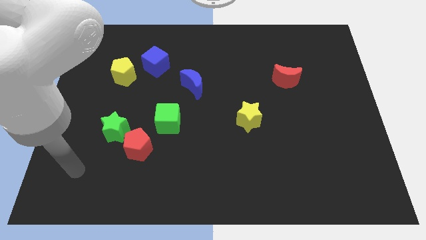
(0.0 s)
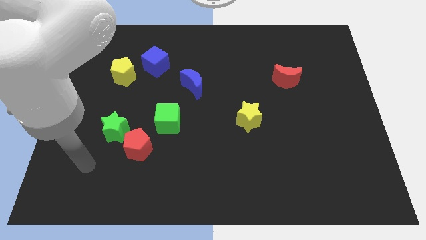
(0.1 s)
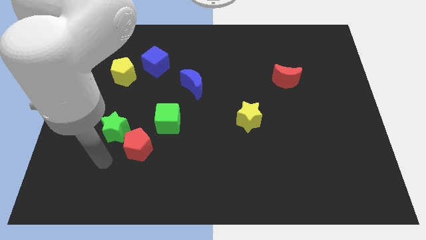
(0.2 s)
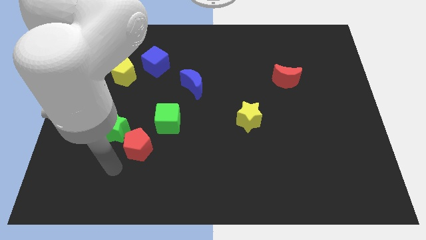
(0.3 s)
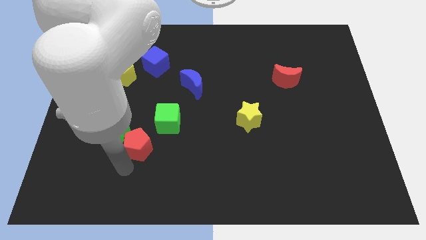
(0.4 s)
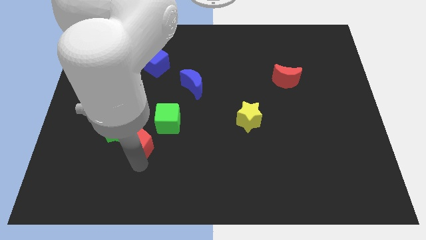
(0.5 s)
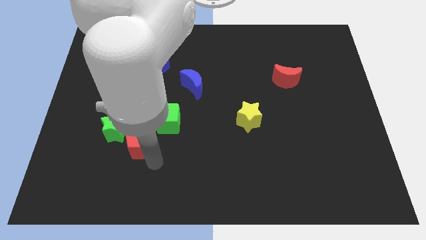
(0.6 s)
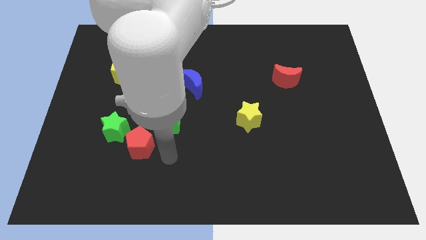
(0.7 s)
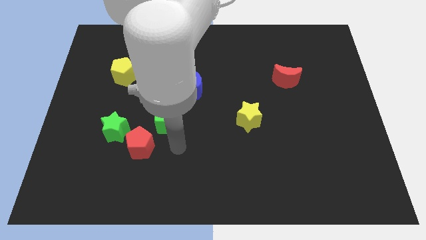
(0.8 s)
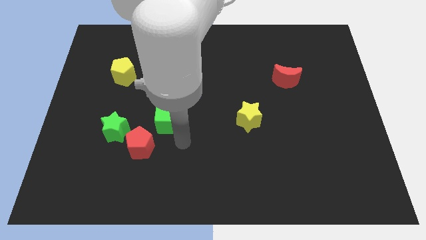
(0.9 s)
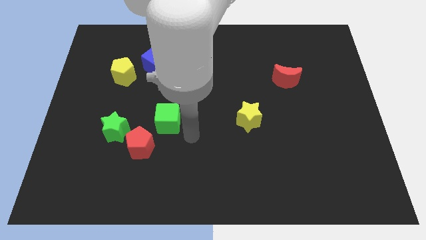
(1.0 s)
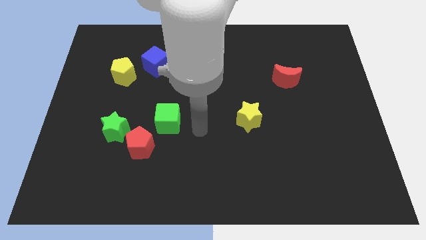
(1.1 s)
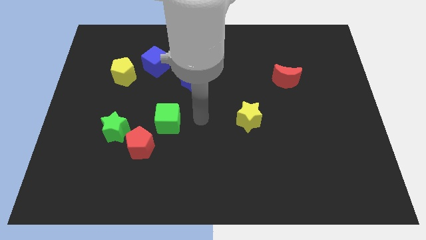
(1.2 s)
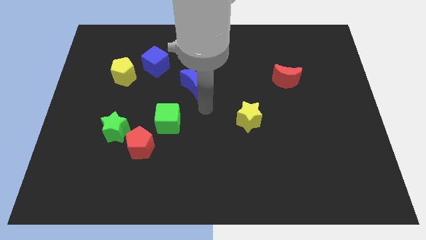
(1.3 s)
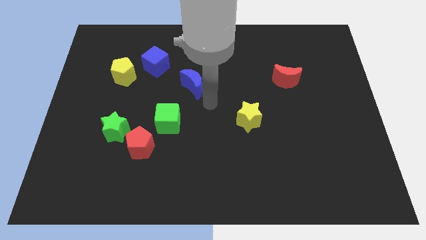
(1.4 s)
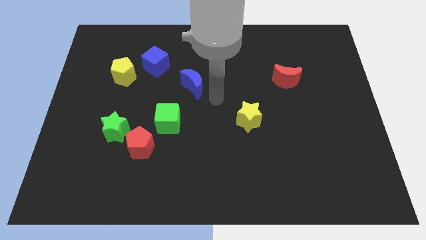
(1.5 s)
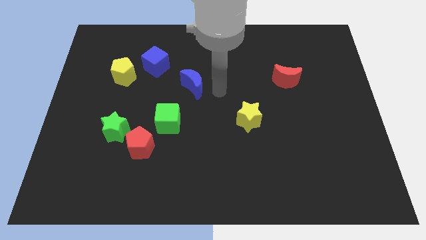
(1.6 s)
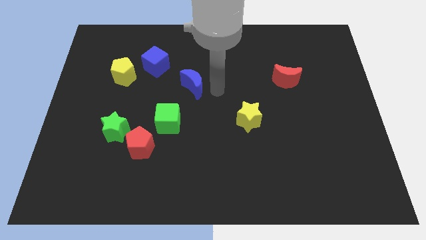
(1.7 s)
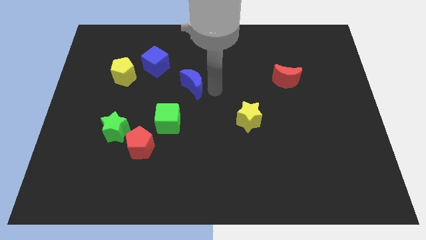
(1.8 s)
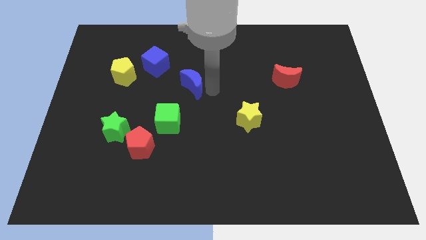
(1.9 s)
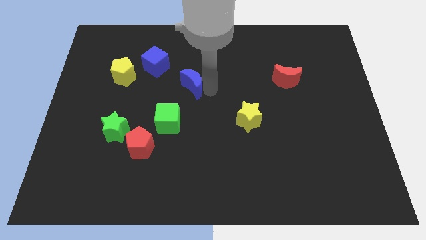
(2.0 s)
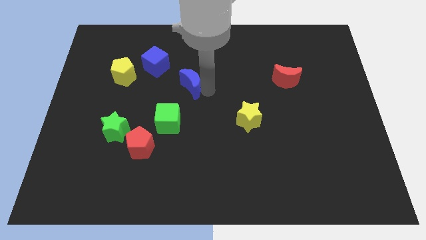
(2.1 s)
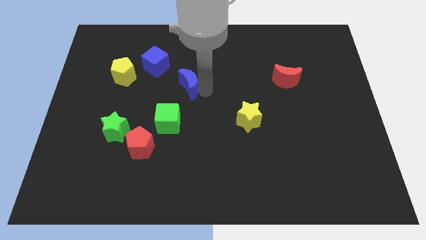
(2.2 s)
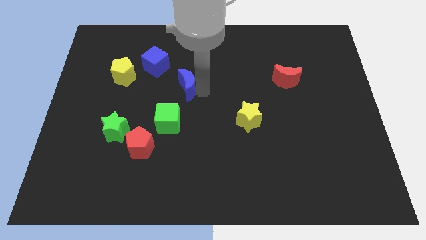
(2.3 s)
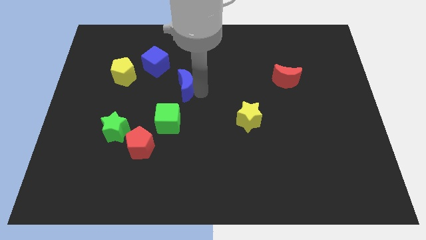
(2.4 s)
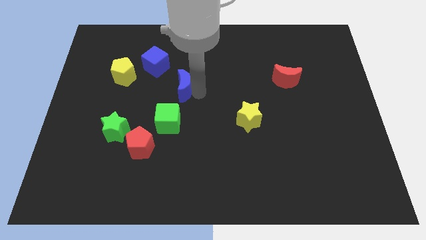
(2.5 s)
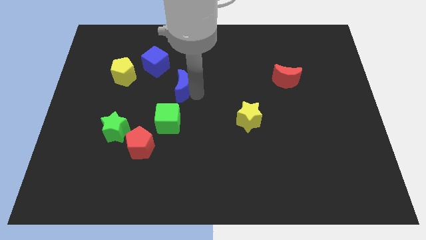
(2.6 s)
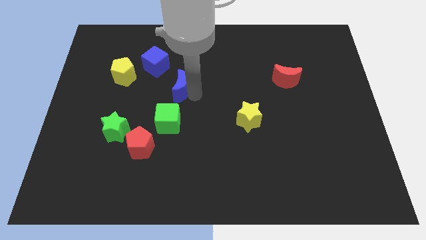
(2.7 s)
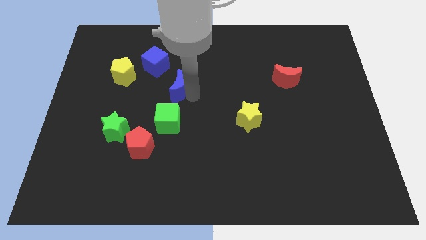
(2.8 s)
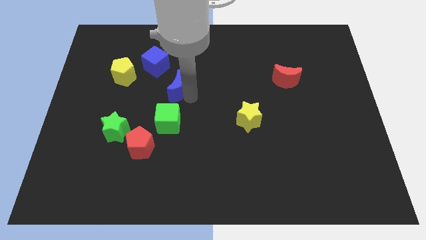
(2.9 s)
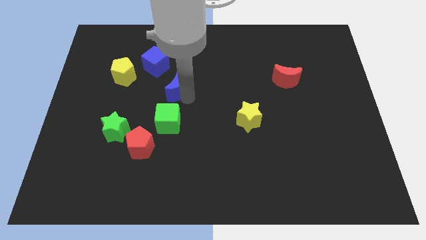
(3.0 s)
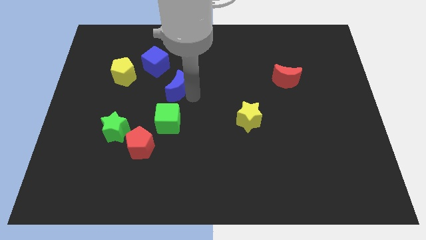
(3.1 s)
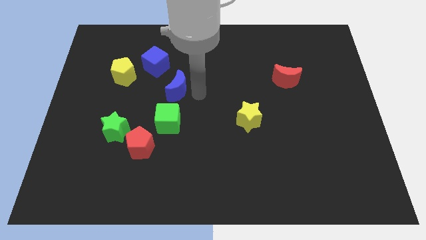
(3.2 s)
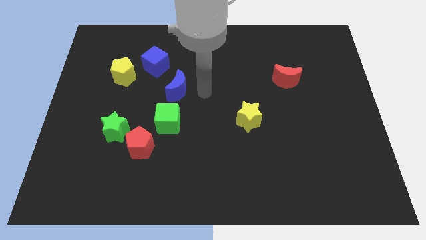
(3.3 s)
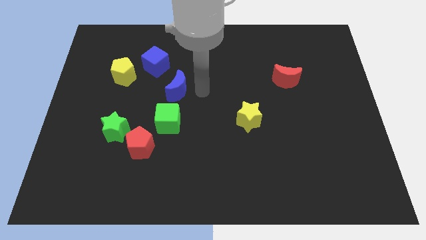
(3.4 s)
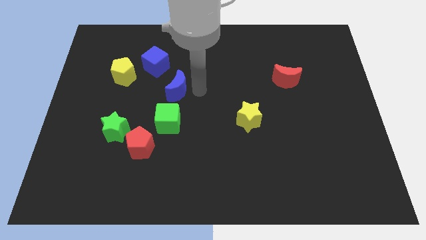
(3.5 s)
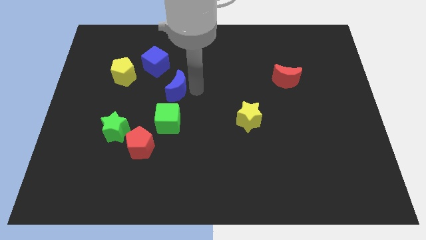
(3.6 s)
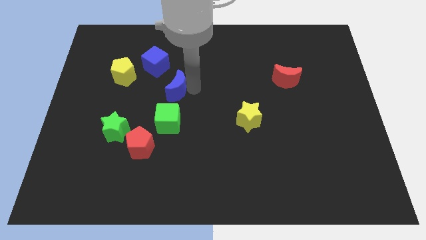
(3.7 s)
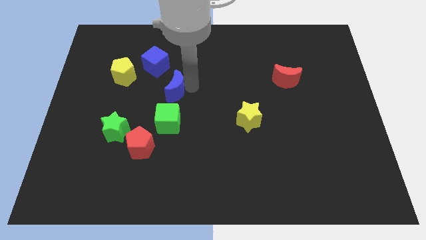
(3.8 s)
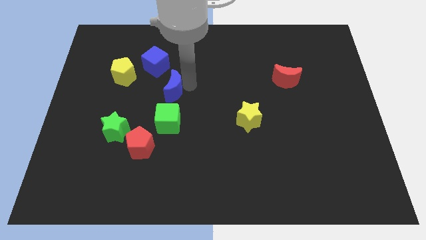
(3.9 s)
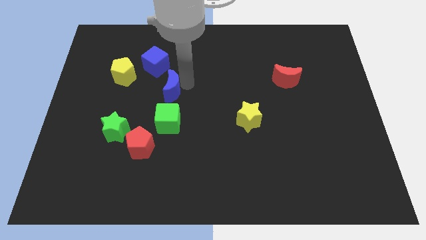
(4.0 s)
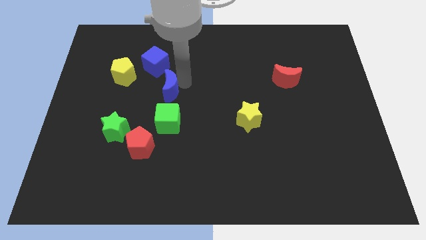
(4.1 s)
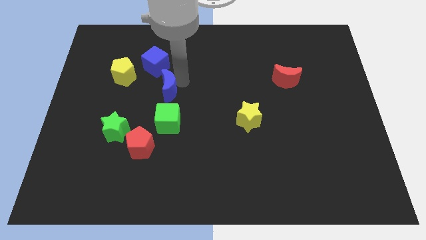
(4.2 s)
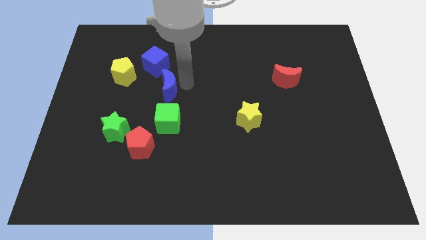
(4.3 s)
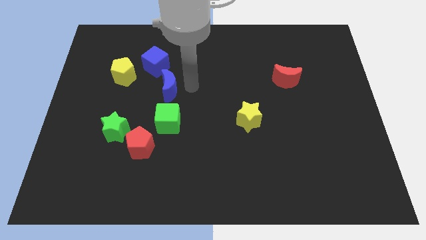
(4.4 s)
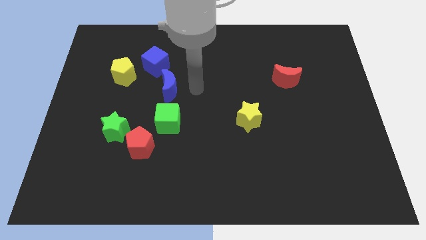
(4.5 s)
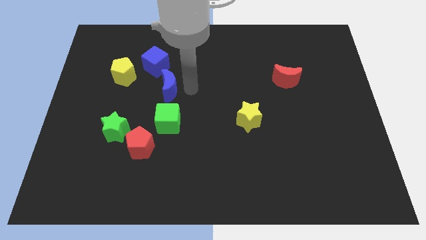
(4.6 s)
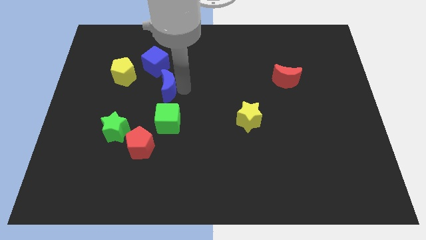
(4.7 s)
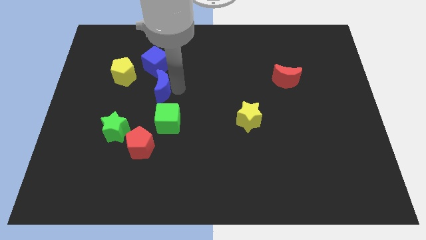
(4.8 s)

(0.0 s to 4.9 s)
slightly slide the blue moon left

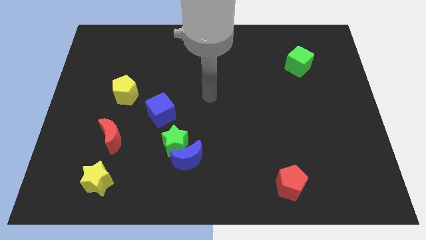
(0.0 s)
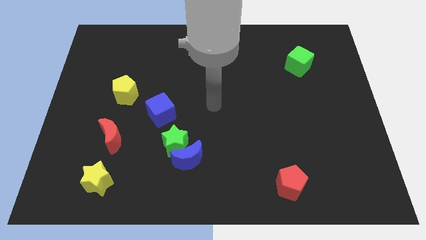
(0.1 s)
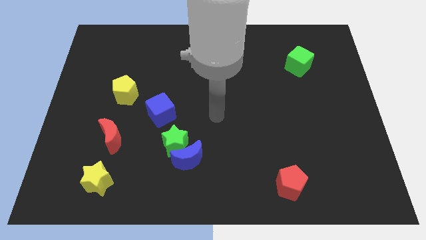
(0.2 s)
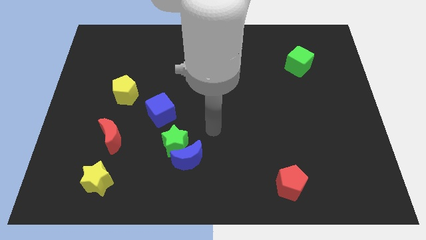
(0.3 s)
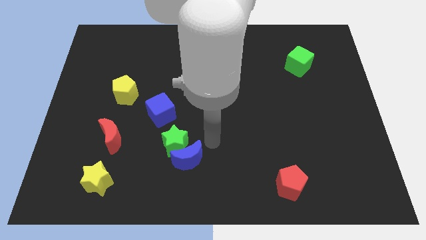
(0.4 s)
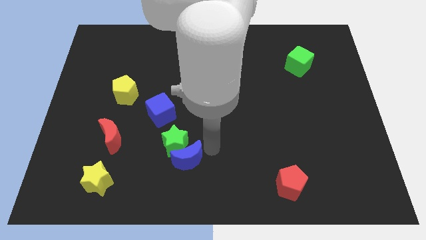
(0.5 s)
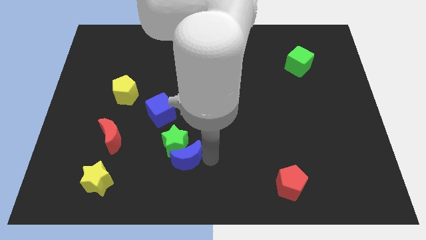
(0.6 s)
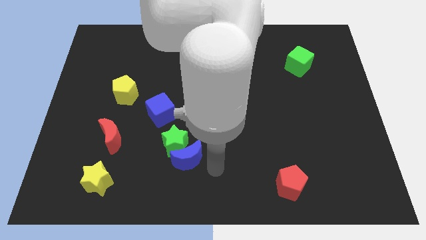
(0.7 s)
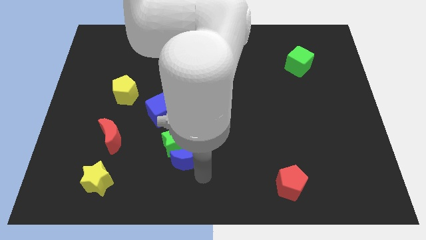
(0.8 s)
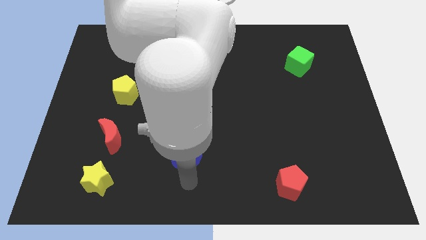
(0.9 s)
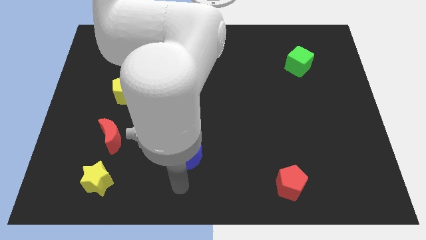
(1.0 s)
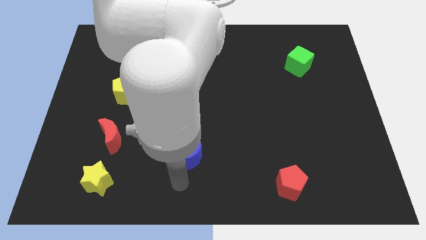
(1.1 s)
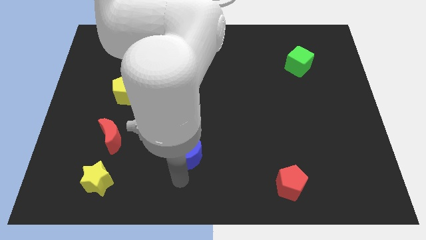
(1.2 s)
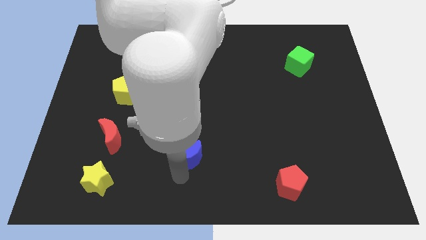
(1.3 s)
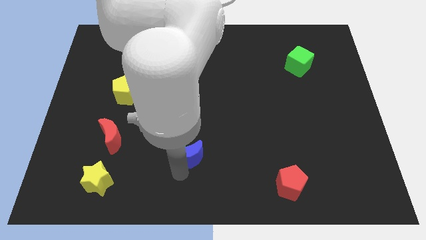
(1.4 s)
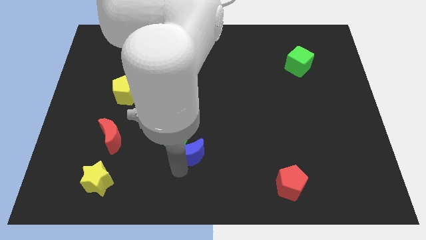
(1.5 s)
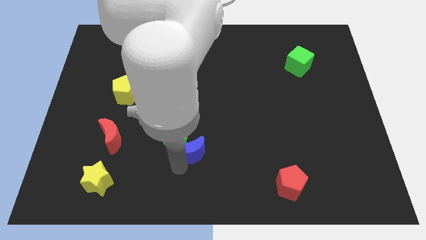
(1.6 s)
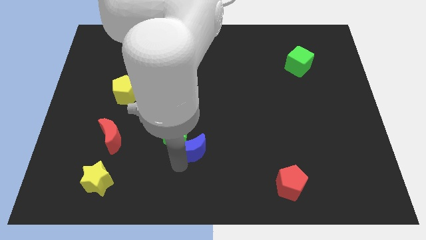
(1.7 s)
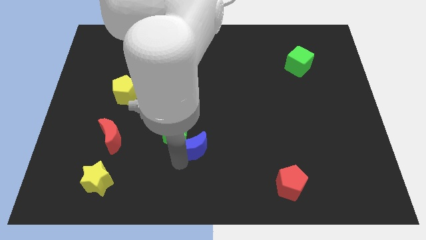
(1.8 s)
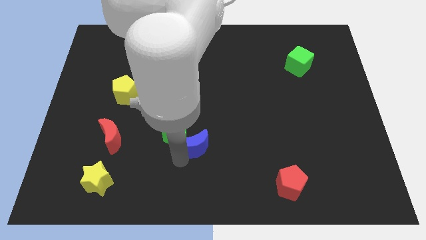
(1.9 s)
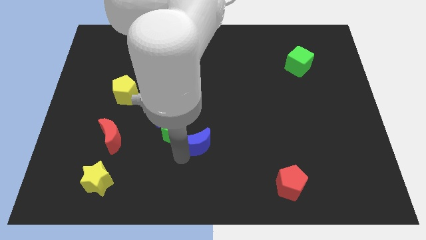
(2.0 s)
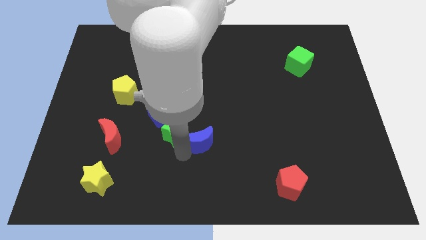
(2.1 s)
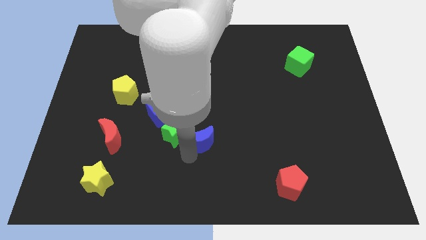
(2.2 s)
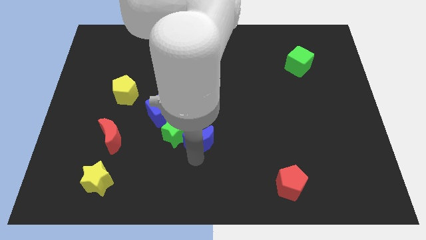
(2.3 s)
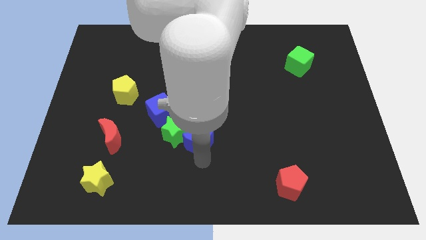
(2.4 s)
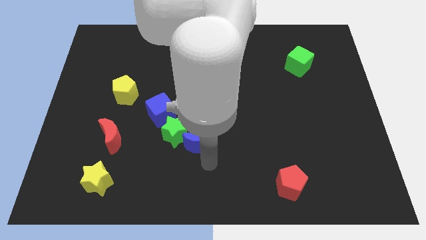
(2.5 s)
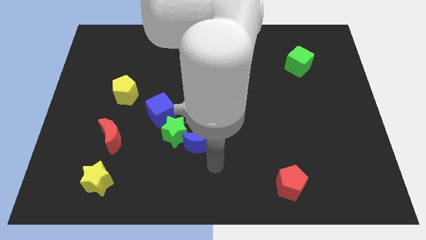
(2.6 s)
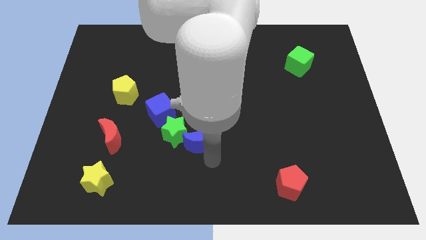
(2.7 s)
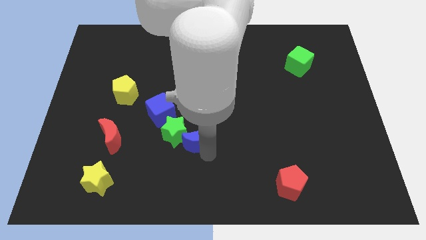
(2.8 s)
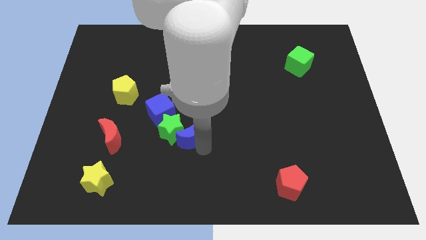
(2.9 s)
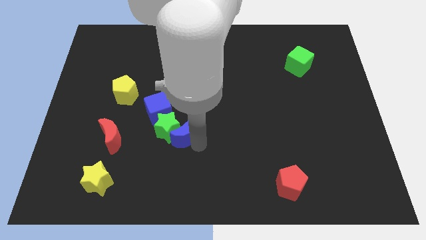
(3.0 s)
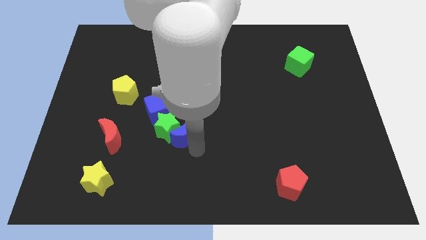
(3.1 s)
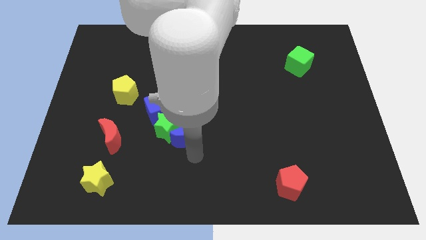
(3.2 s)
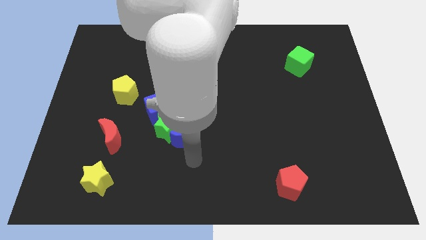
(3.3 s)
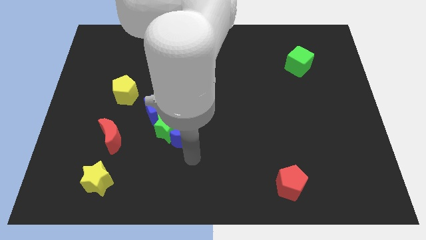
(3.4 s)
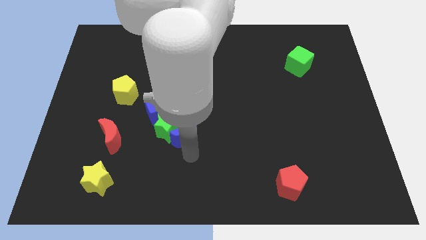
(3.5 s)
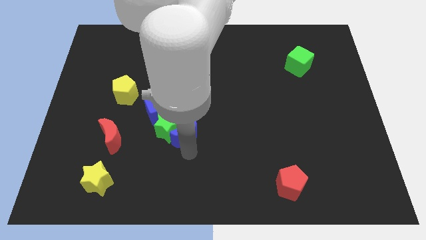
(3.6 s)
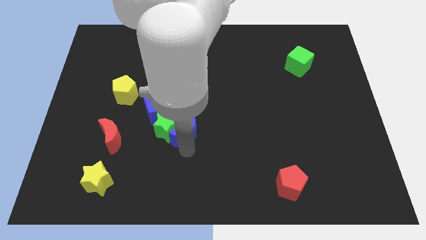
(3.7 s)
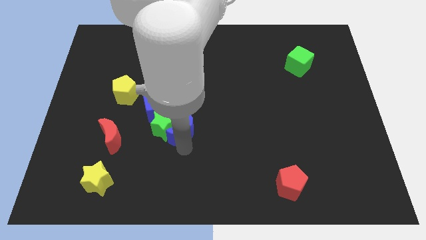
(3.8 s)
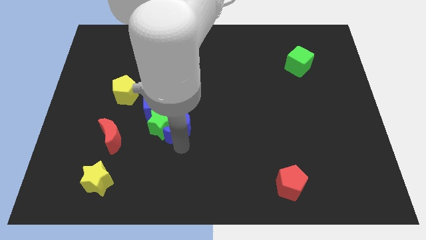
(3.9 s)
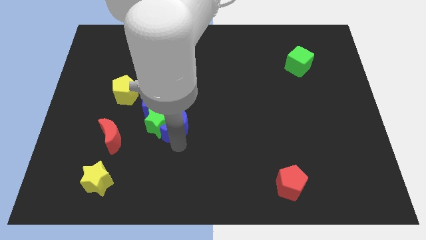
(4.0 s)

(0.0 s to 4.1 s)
slightly slide the blue moon upwards and left diagonally
